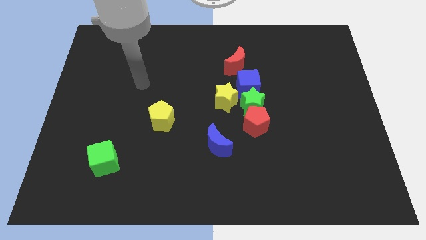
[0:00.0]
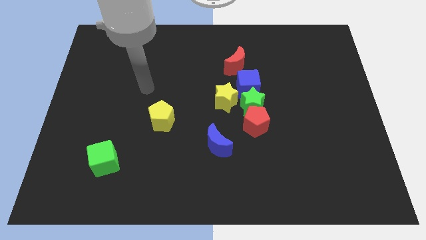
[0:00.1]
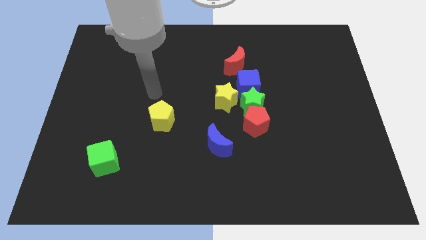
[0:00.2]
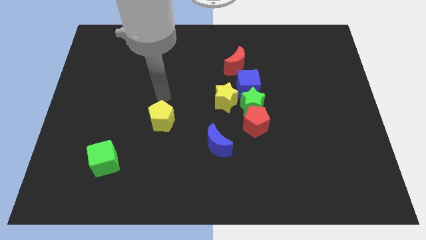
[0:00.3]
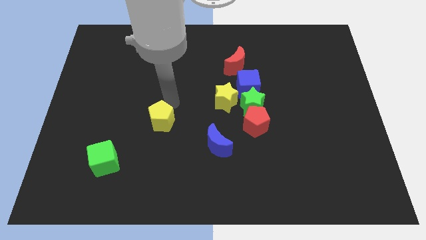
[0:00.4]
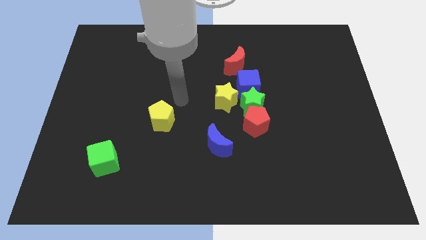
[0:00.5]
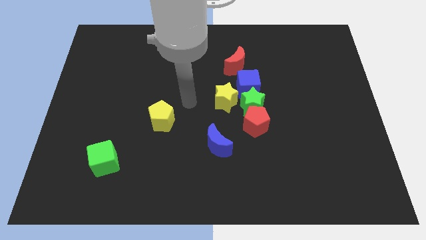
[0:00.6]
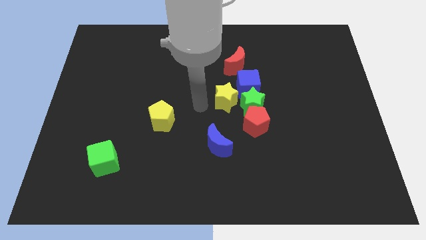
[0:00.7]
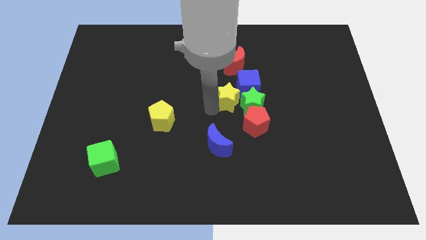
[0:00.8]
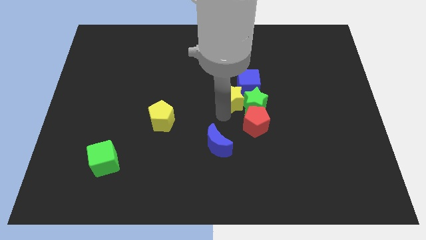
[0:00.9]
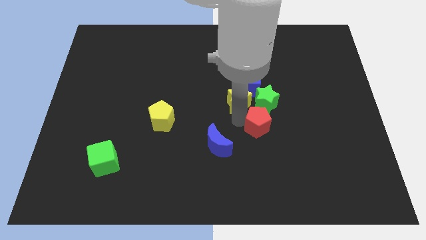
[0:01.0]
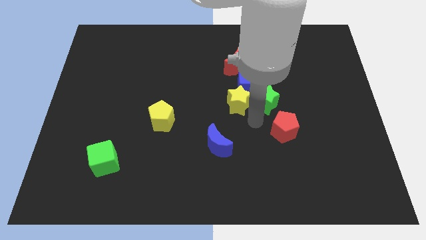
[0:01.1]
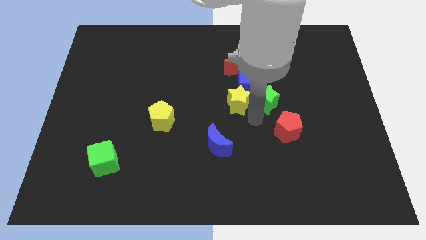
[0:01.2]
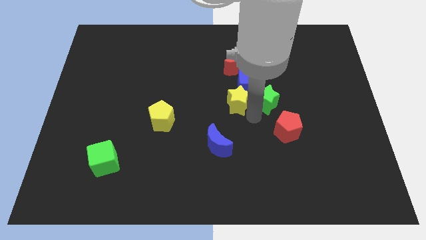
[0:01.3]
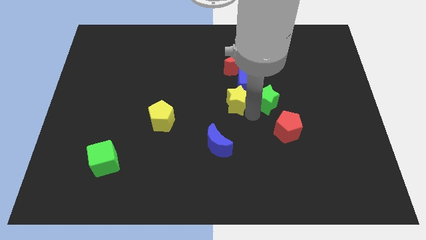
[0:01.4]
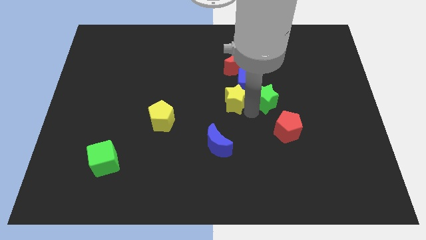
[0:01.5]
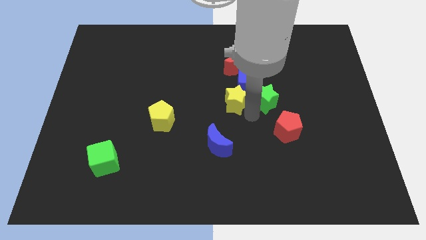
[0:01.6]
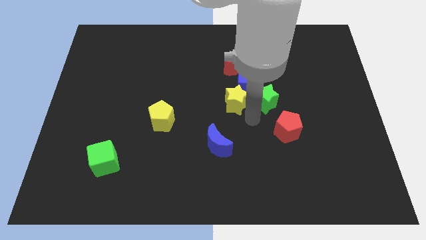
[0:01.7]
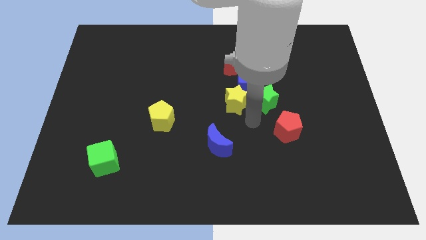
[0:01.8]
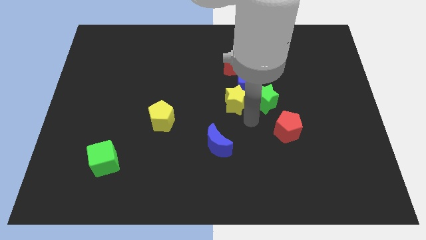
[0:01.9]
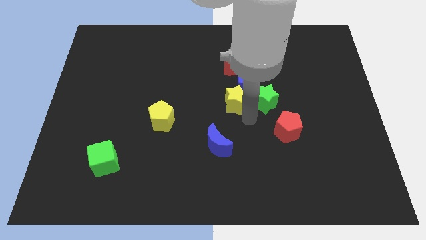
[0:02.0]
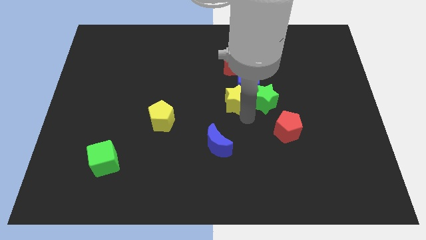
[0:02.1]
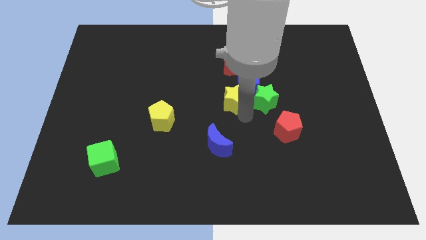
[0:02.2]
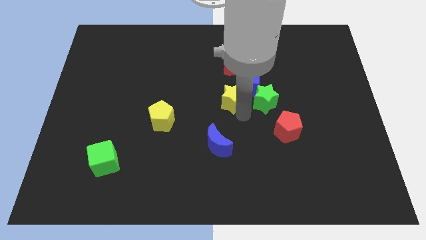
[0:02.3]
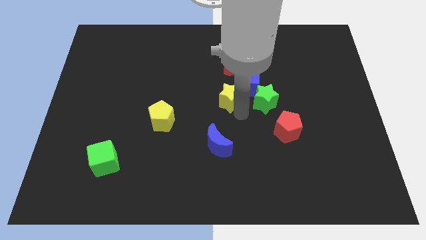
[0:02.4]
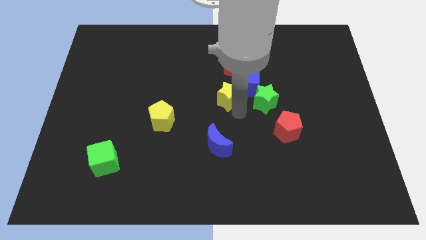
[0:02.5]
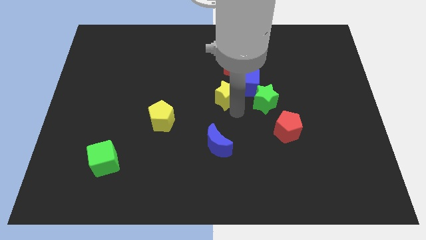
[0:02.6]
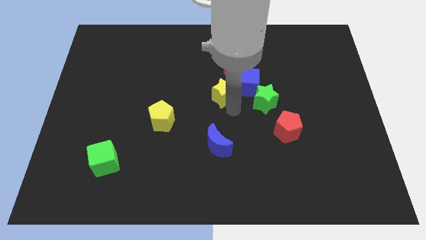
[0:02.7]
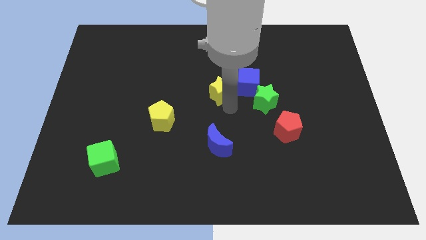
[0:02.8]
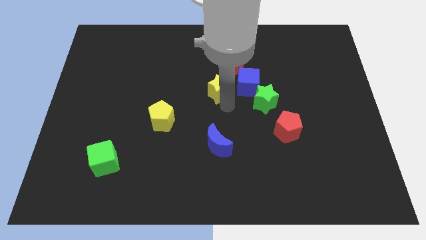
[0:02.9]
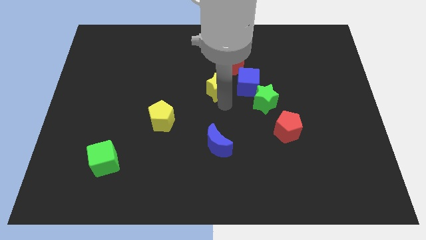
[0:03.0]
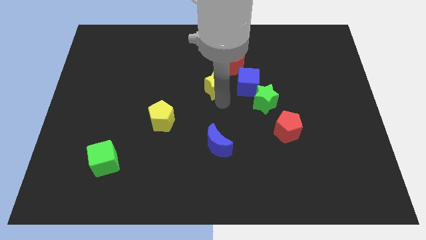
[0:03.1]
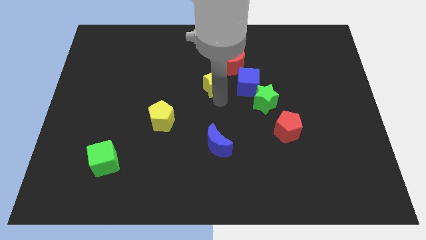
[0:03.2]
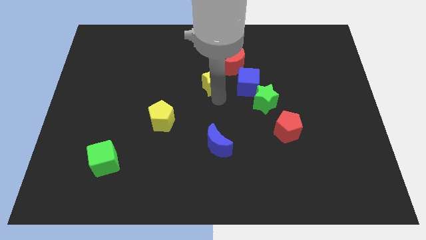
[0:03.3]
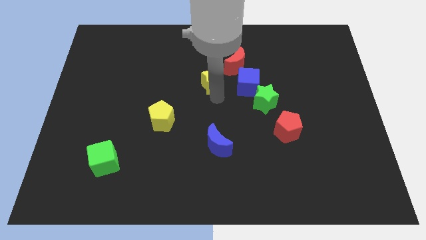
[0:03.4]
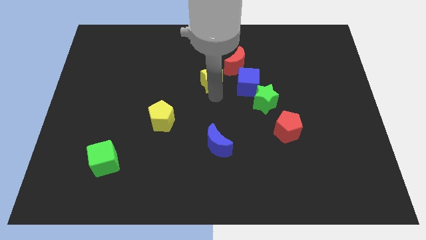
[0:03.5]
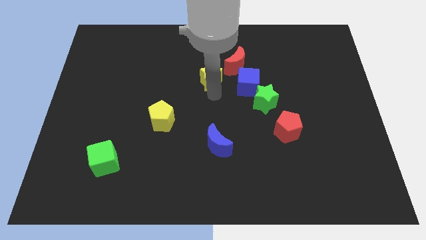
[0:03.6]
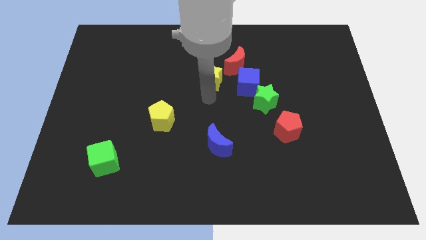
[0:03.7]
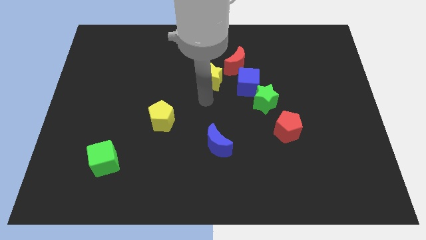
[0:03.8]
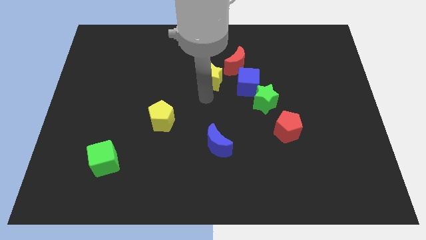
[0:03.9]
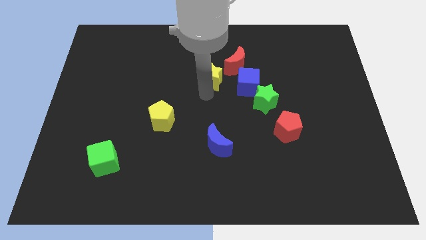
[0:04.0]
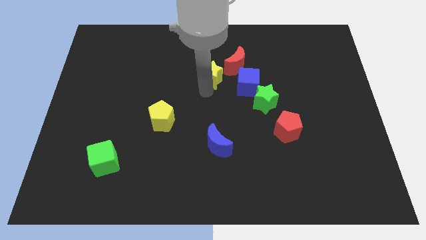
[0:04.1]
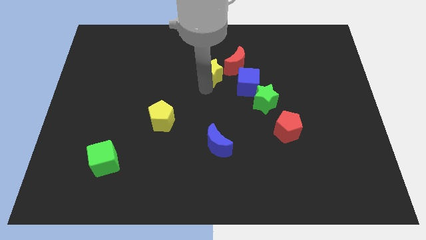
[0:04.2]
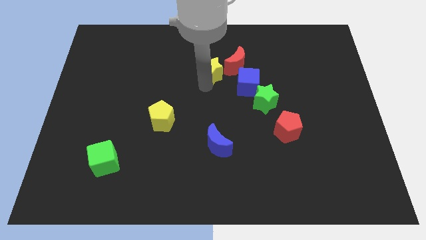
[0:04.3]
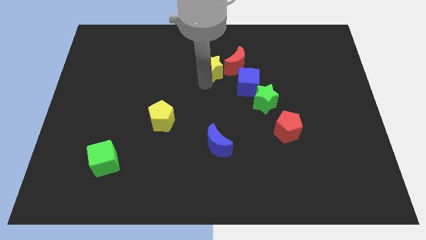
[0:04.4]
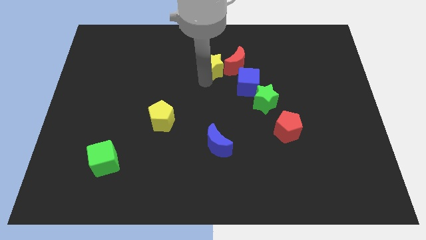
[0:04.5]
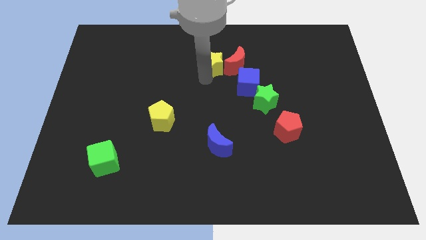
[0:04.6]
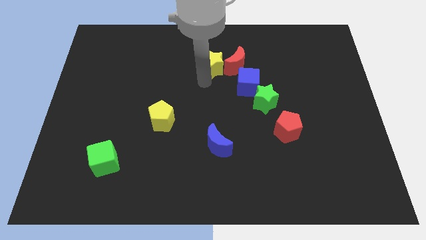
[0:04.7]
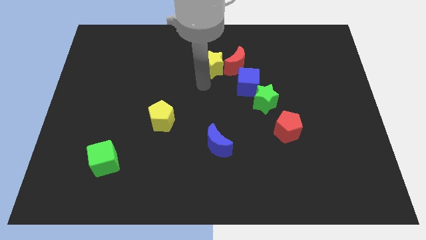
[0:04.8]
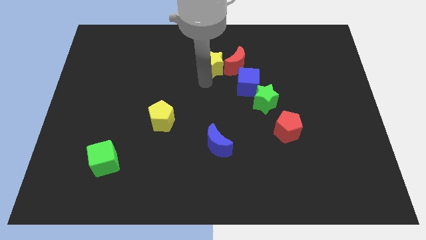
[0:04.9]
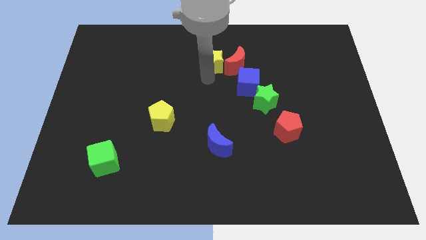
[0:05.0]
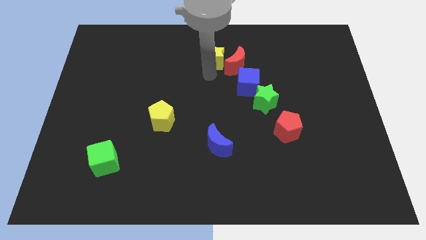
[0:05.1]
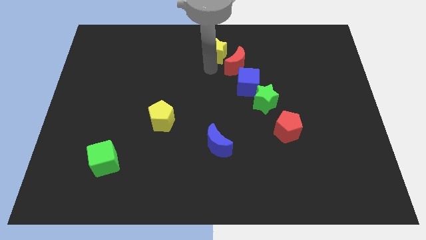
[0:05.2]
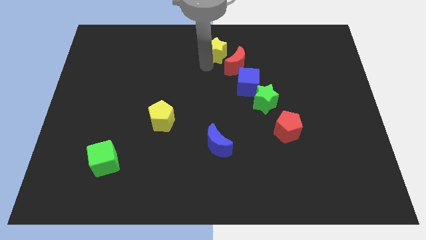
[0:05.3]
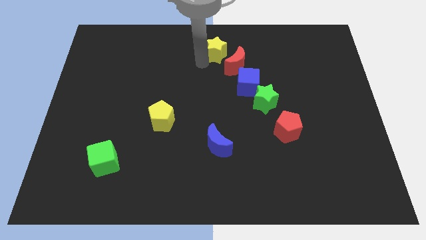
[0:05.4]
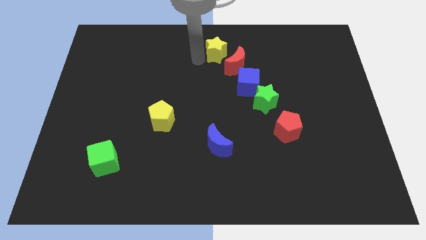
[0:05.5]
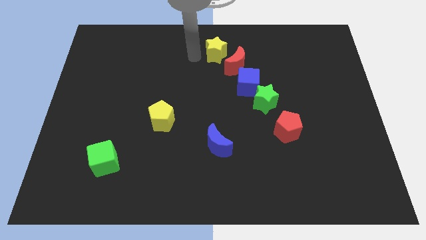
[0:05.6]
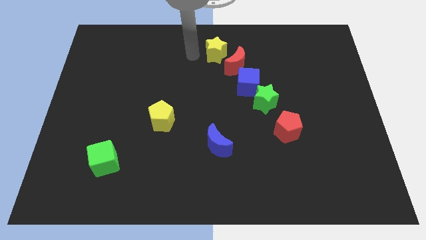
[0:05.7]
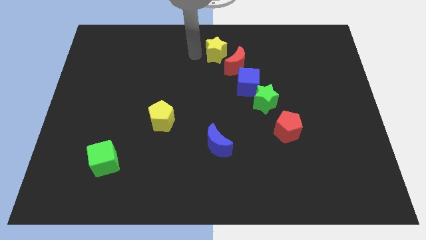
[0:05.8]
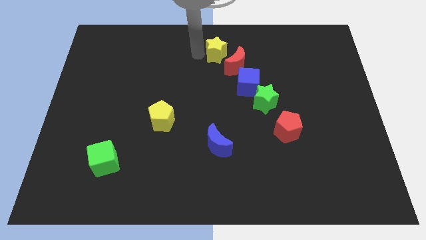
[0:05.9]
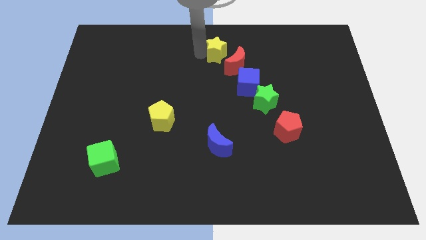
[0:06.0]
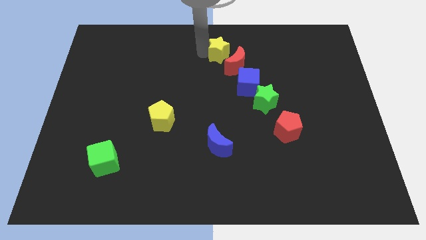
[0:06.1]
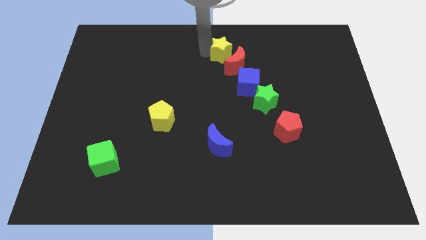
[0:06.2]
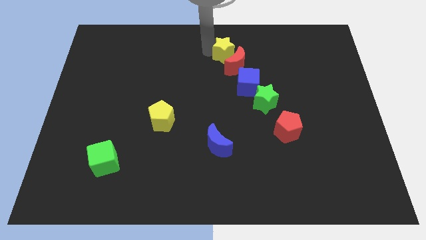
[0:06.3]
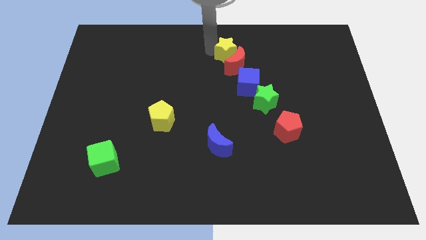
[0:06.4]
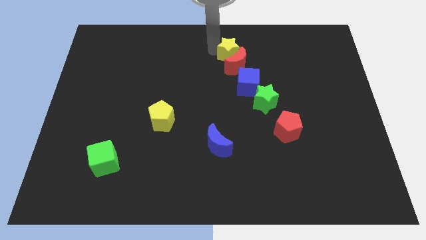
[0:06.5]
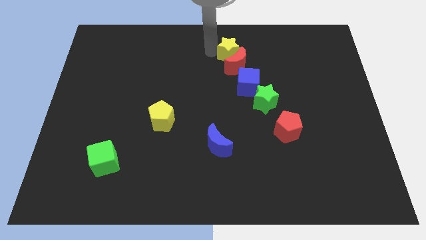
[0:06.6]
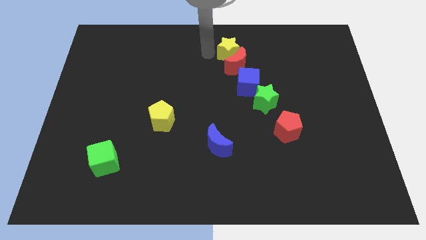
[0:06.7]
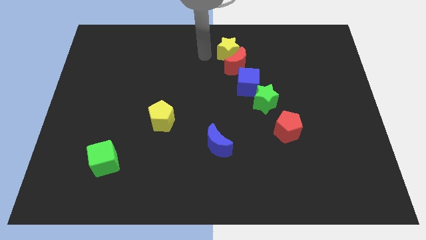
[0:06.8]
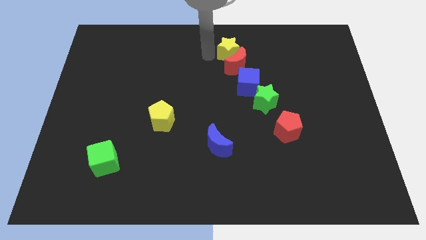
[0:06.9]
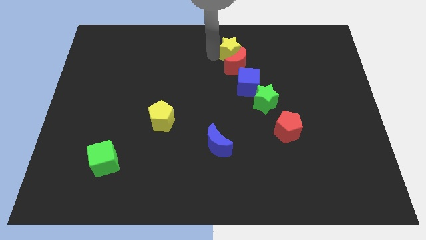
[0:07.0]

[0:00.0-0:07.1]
slightly slide the yellow star diagonally upwards and to the right

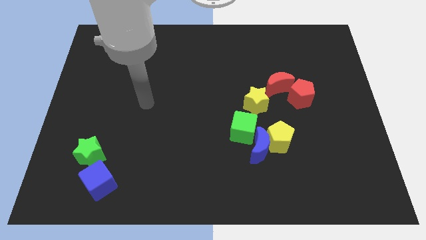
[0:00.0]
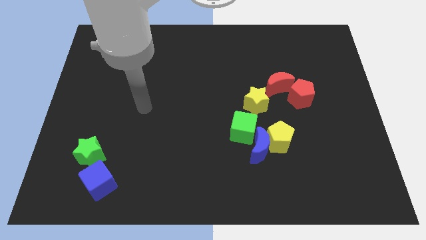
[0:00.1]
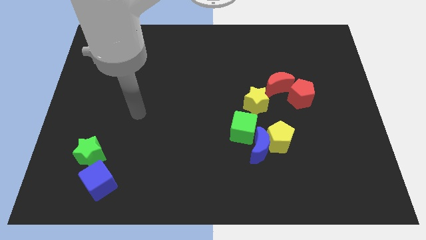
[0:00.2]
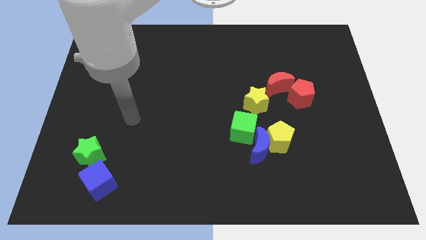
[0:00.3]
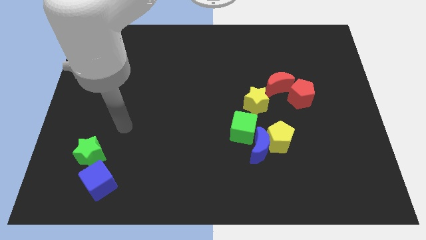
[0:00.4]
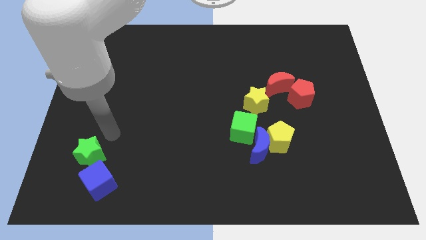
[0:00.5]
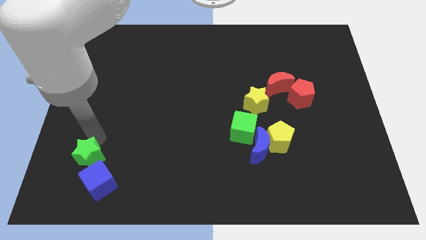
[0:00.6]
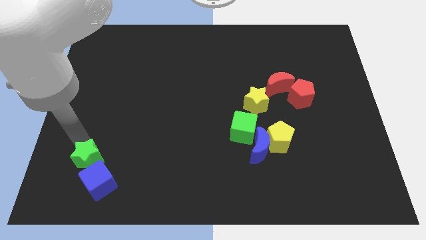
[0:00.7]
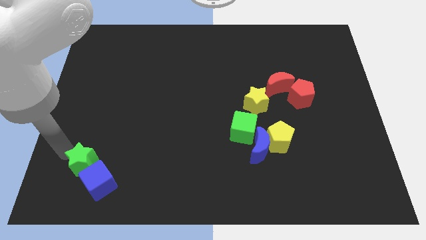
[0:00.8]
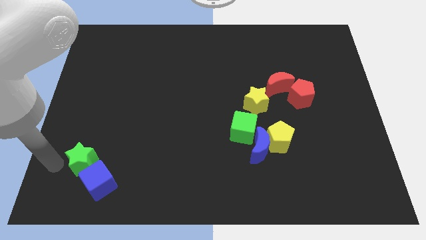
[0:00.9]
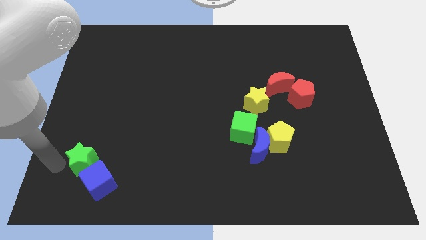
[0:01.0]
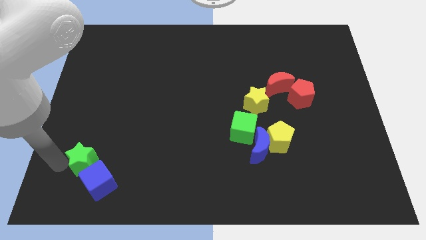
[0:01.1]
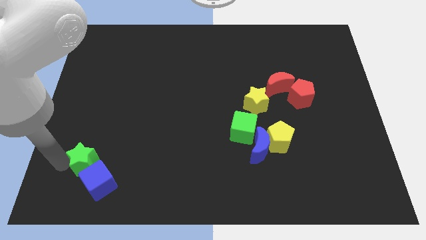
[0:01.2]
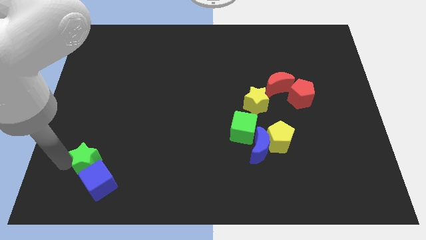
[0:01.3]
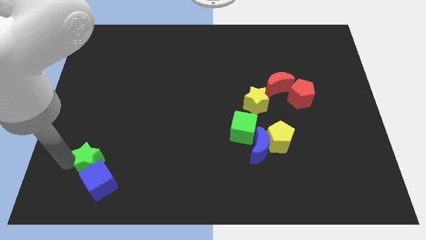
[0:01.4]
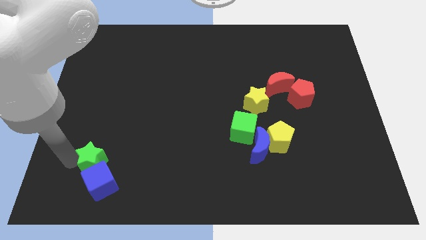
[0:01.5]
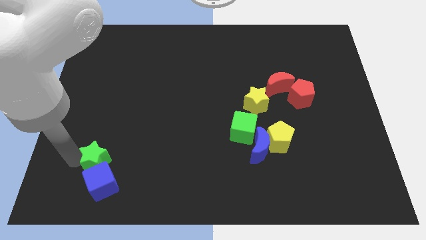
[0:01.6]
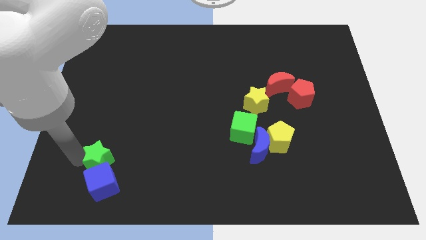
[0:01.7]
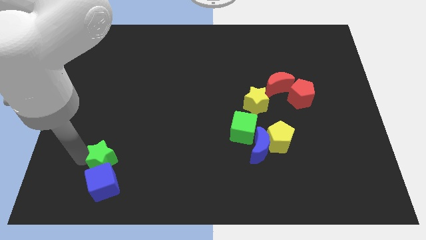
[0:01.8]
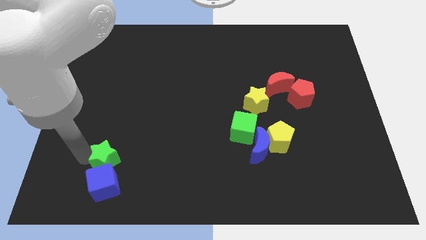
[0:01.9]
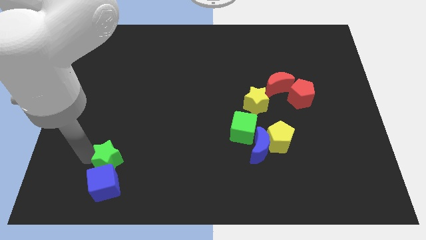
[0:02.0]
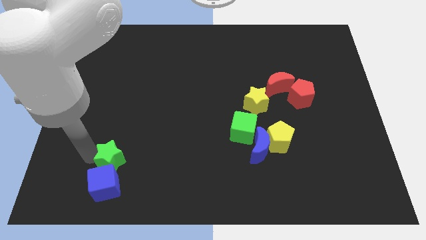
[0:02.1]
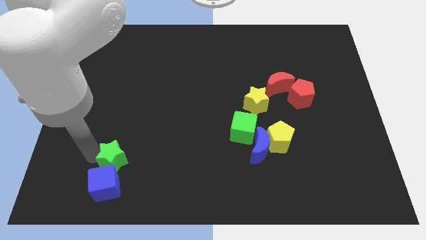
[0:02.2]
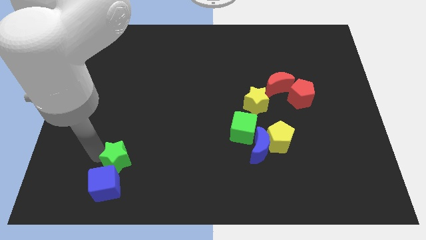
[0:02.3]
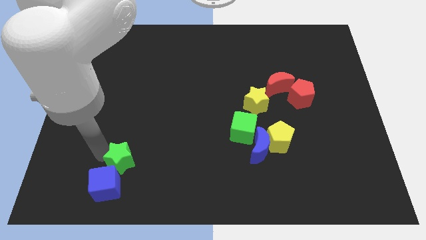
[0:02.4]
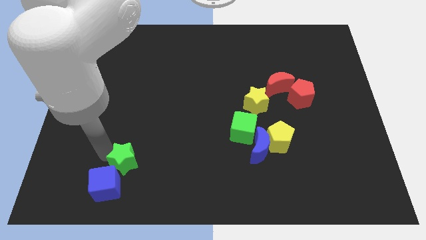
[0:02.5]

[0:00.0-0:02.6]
slide the green star to the right a little bit
